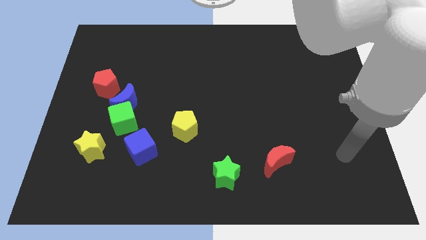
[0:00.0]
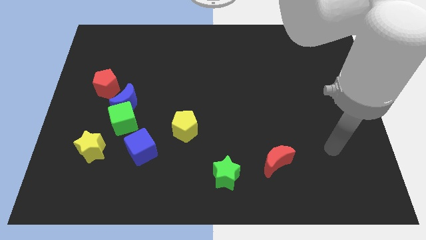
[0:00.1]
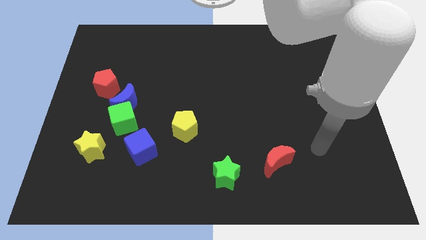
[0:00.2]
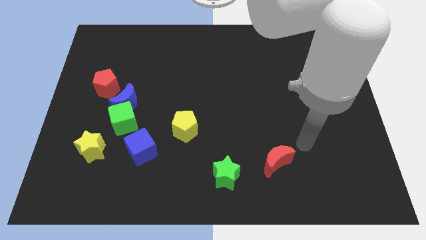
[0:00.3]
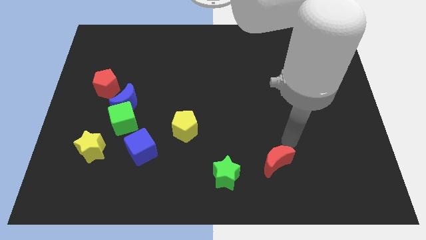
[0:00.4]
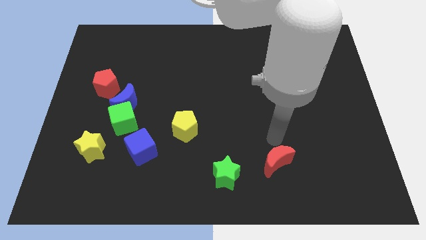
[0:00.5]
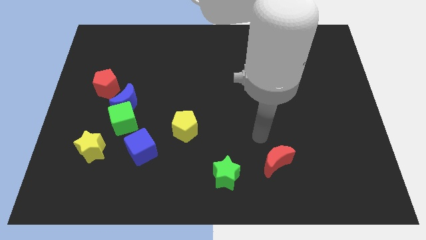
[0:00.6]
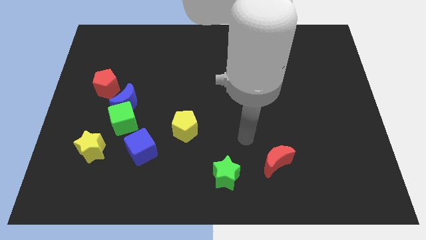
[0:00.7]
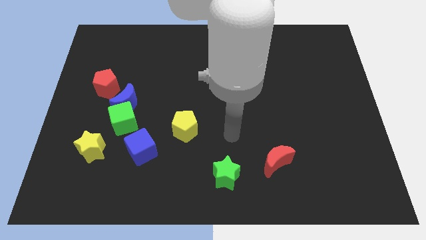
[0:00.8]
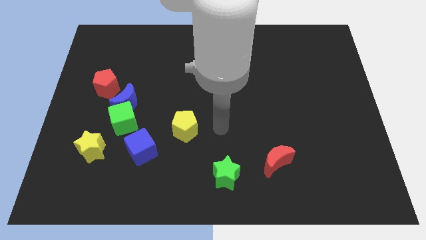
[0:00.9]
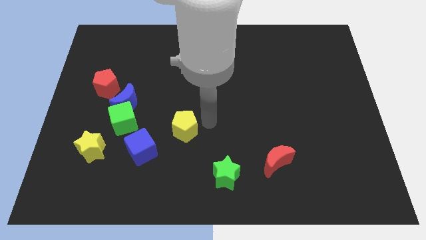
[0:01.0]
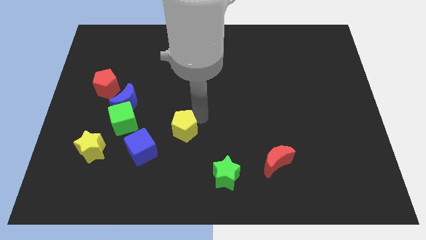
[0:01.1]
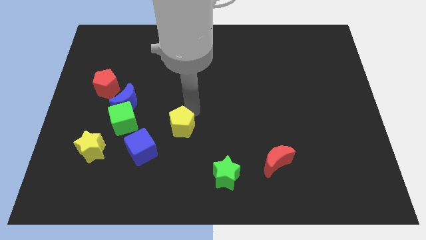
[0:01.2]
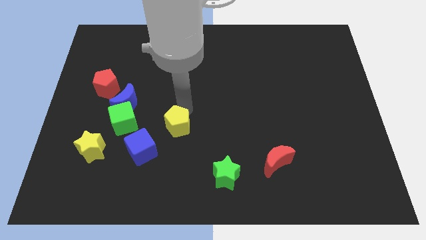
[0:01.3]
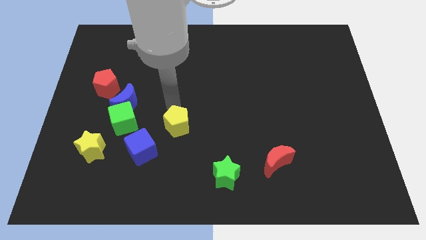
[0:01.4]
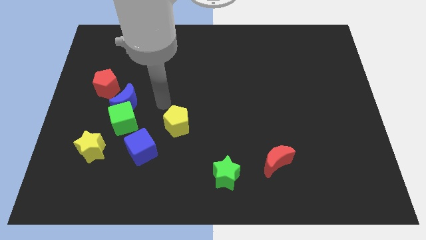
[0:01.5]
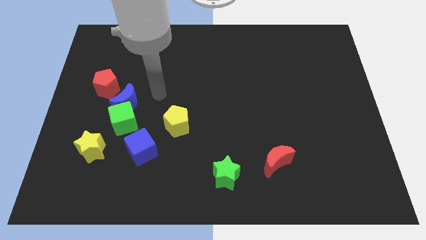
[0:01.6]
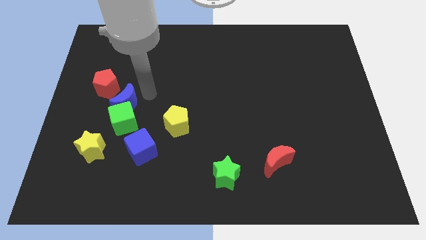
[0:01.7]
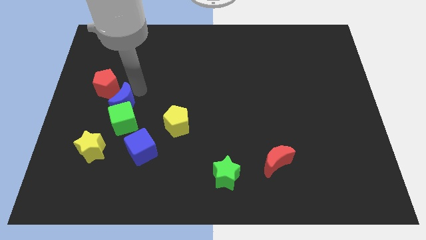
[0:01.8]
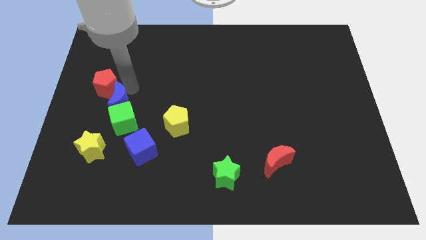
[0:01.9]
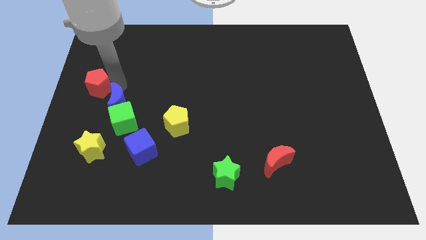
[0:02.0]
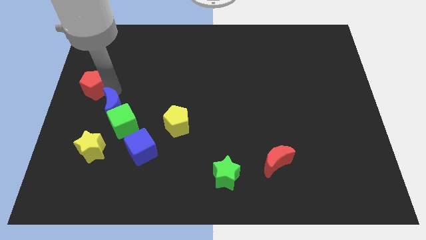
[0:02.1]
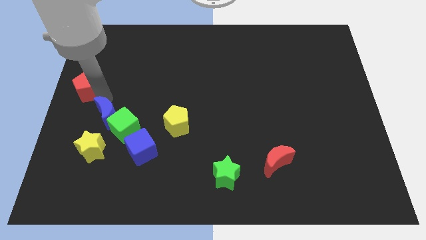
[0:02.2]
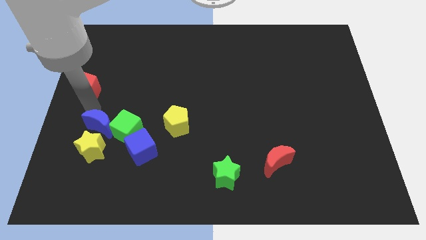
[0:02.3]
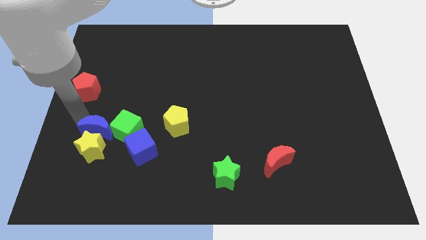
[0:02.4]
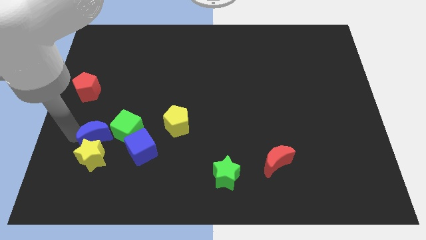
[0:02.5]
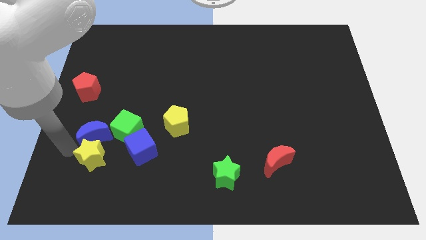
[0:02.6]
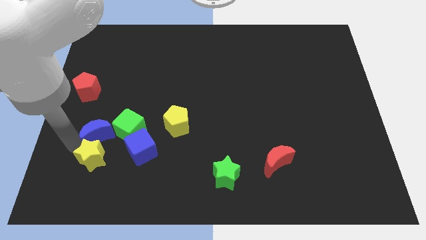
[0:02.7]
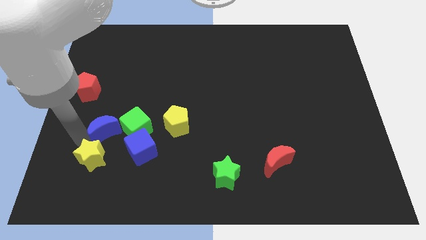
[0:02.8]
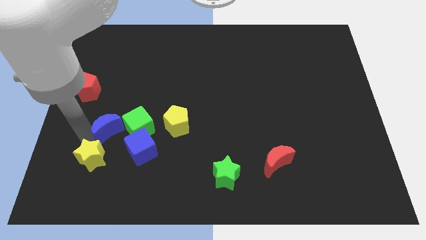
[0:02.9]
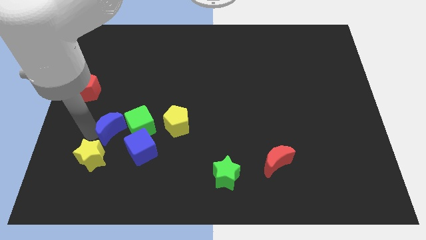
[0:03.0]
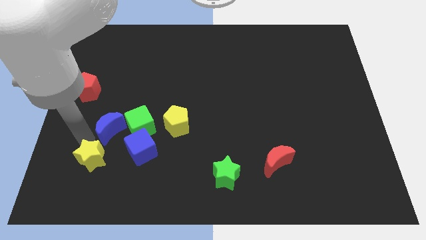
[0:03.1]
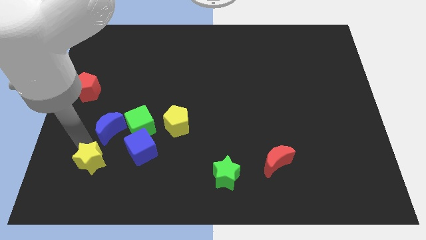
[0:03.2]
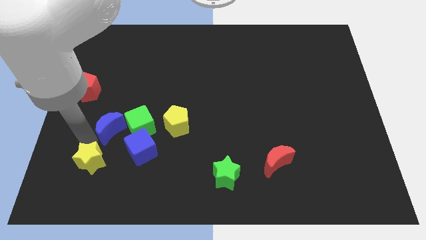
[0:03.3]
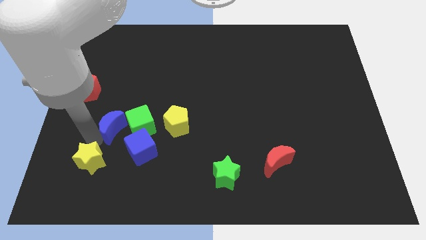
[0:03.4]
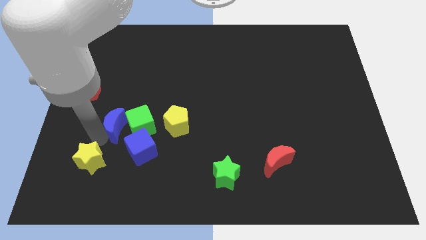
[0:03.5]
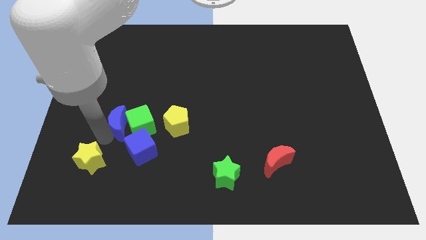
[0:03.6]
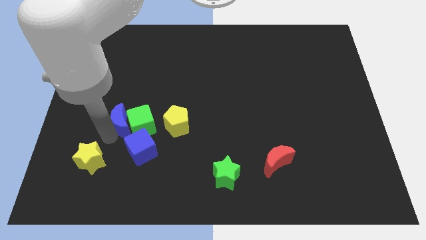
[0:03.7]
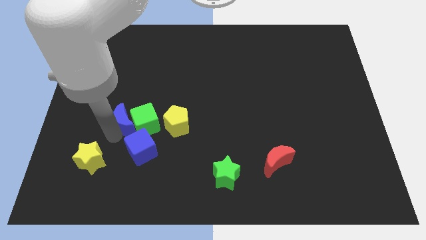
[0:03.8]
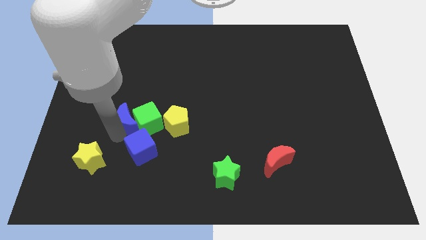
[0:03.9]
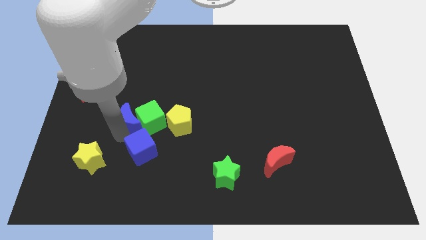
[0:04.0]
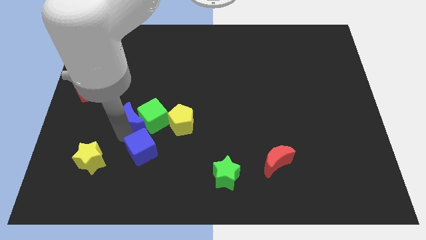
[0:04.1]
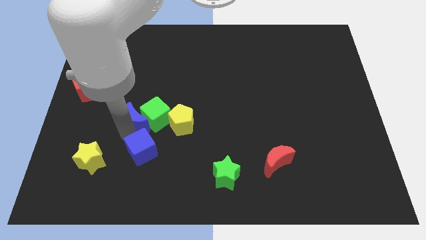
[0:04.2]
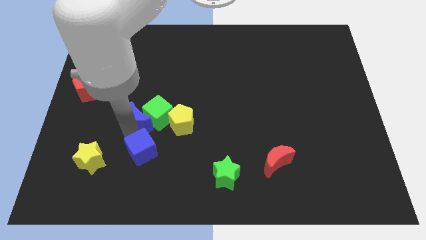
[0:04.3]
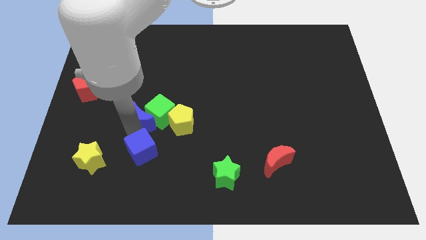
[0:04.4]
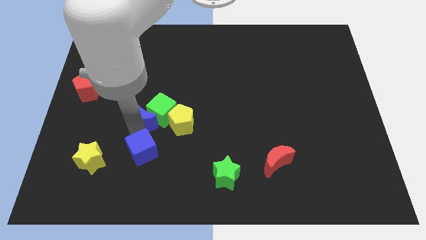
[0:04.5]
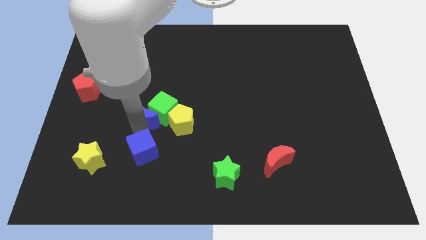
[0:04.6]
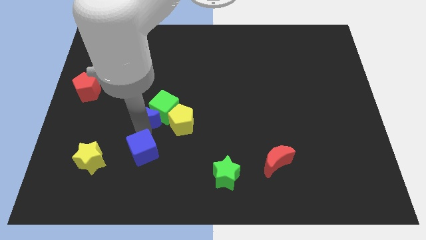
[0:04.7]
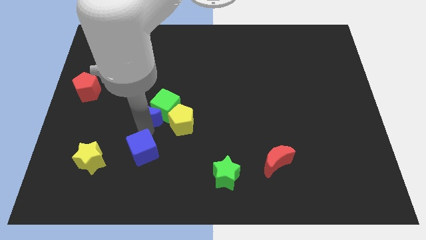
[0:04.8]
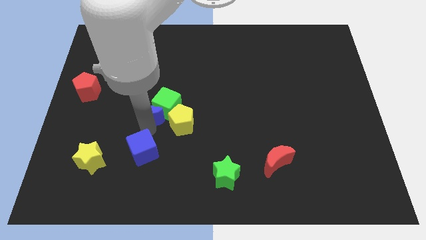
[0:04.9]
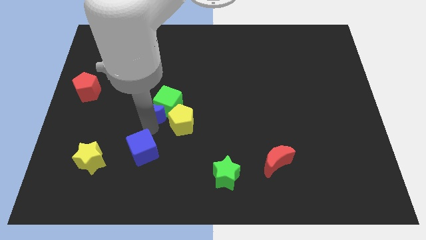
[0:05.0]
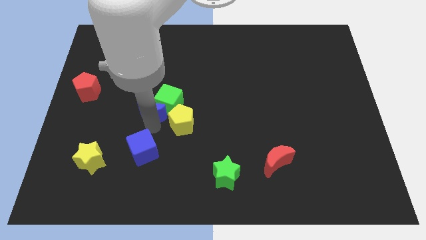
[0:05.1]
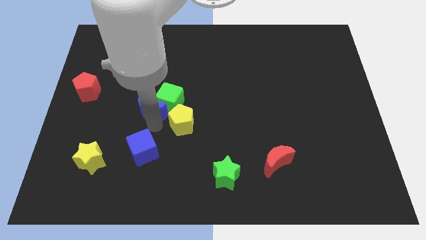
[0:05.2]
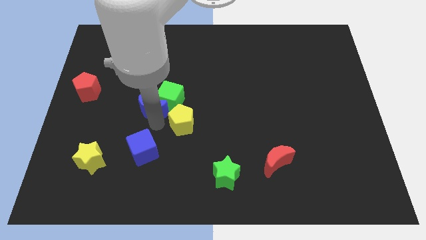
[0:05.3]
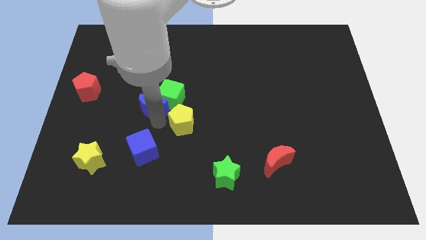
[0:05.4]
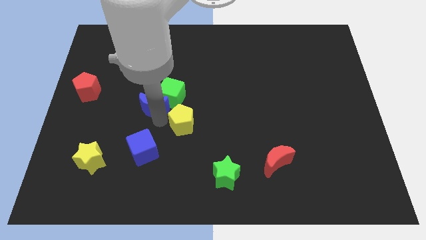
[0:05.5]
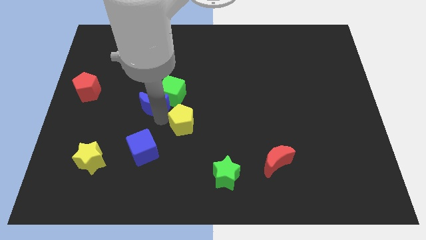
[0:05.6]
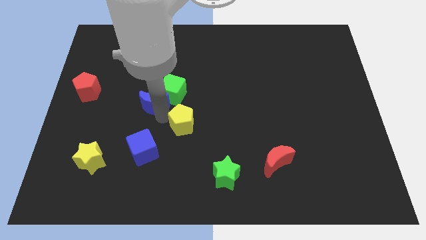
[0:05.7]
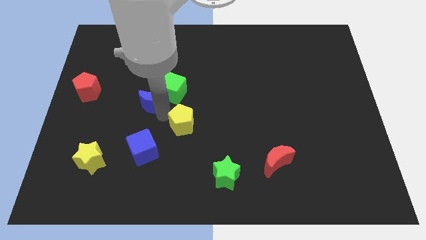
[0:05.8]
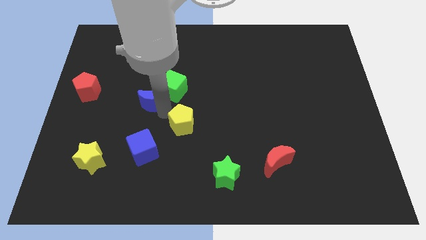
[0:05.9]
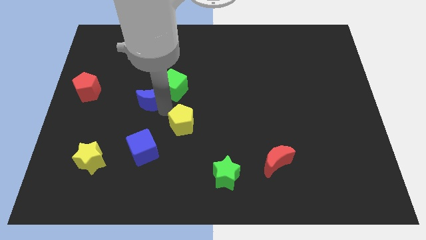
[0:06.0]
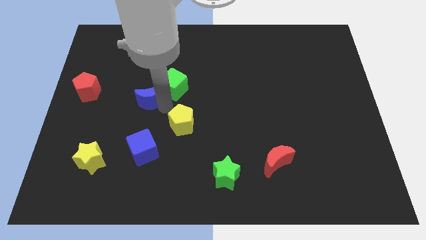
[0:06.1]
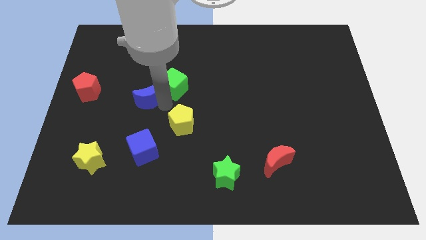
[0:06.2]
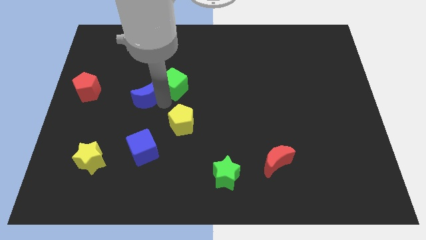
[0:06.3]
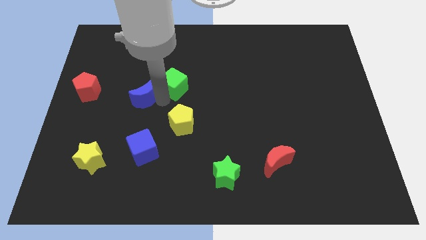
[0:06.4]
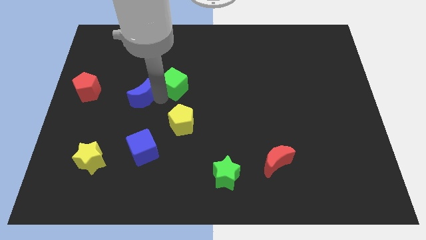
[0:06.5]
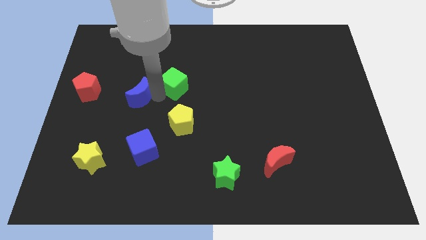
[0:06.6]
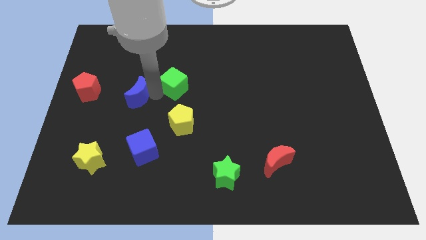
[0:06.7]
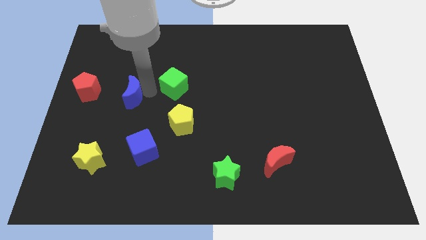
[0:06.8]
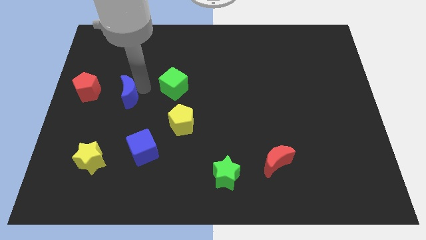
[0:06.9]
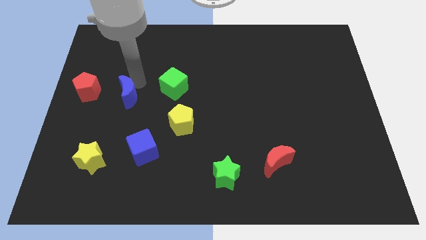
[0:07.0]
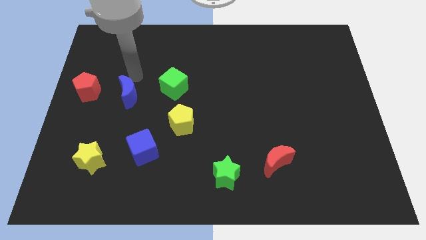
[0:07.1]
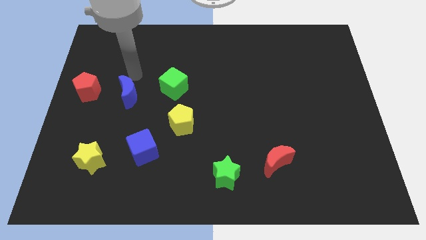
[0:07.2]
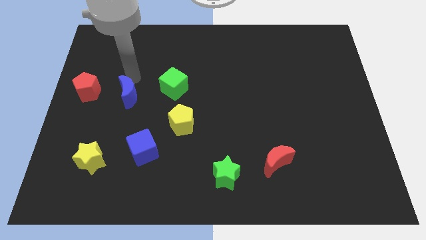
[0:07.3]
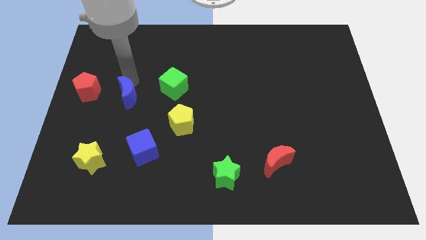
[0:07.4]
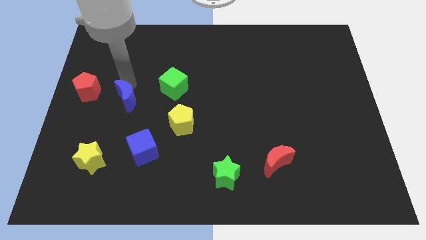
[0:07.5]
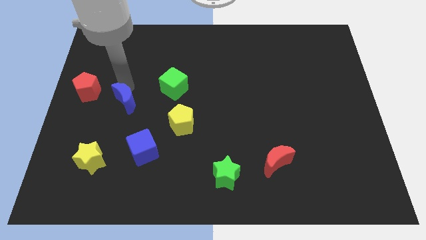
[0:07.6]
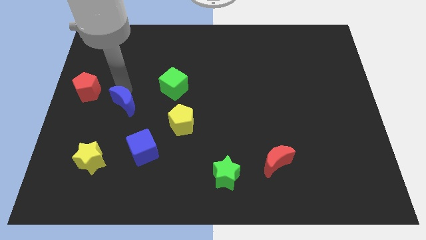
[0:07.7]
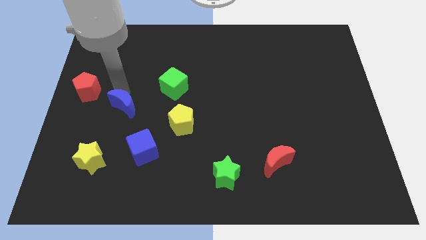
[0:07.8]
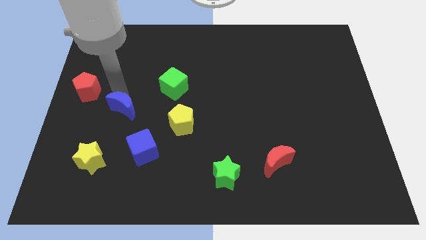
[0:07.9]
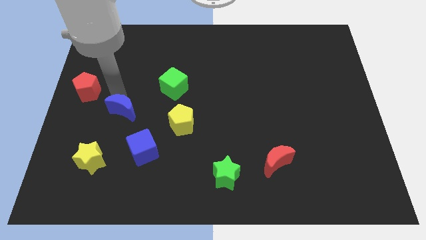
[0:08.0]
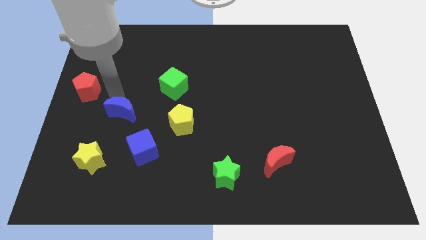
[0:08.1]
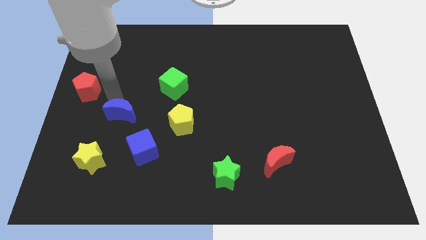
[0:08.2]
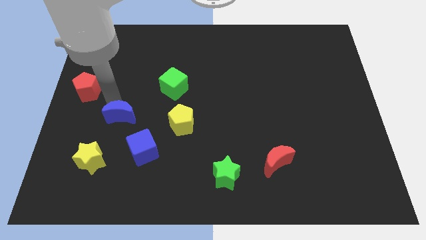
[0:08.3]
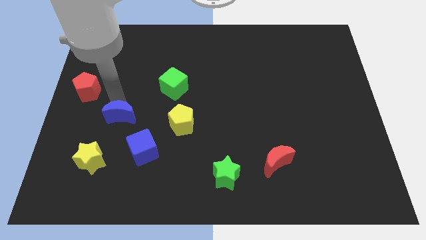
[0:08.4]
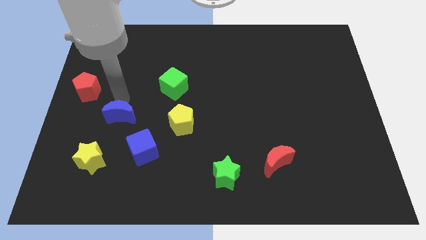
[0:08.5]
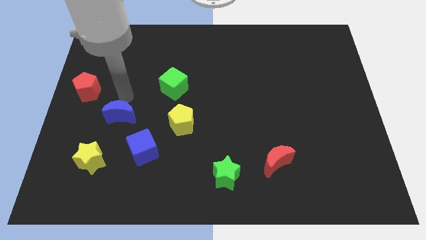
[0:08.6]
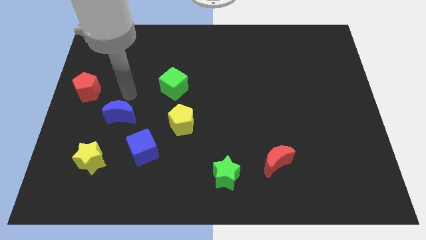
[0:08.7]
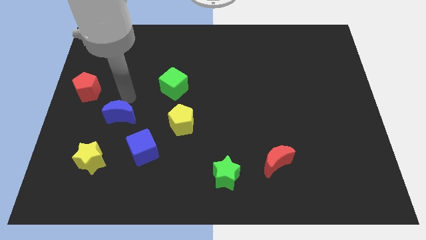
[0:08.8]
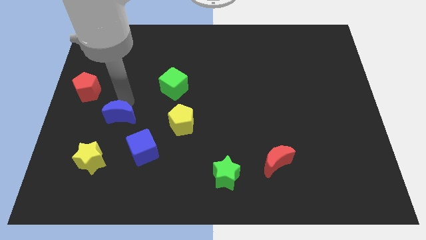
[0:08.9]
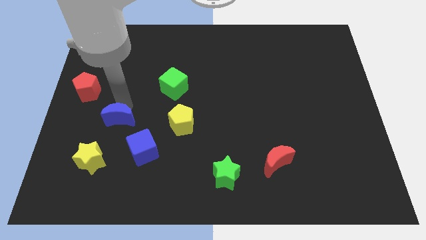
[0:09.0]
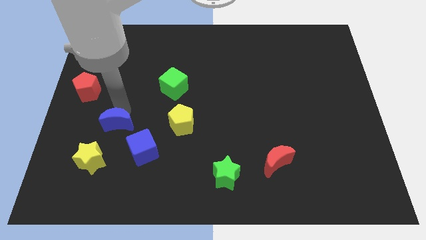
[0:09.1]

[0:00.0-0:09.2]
pull the blue moon apart from the green cube and red pentagon

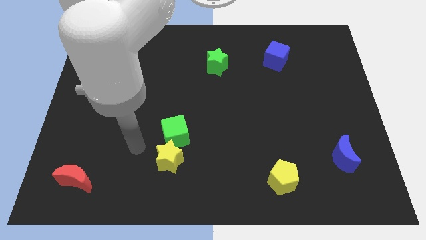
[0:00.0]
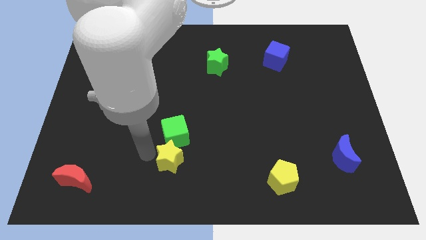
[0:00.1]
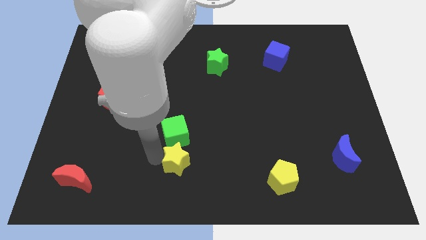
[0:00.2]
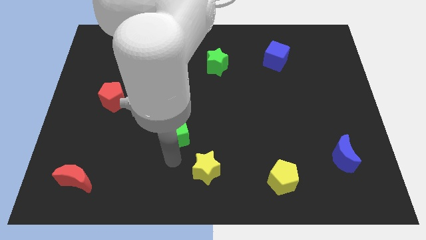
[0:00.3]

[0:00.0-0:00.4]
move the green cube away from the yellow star
